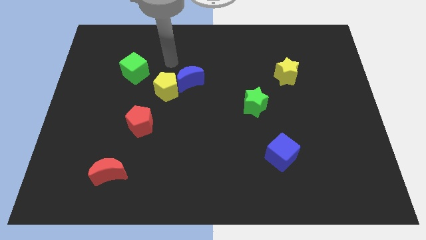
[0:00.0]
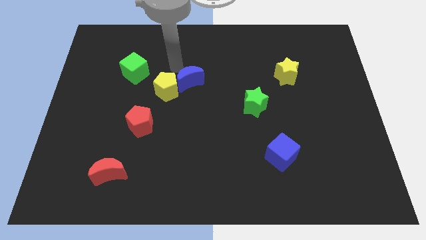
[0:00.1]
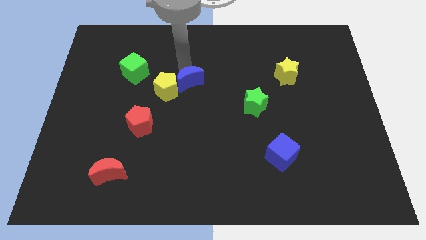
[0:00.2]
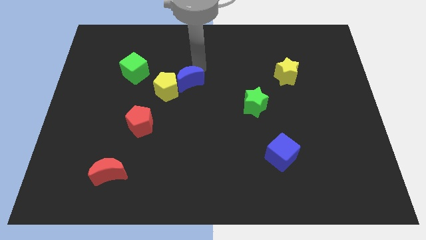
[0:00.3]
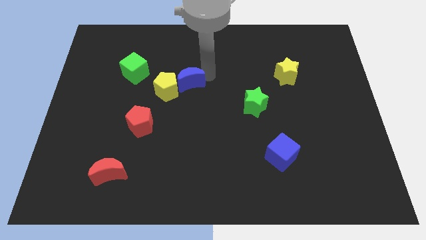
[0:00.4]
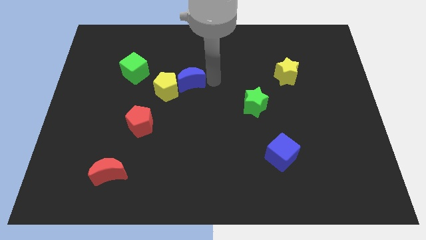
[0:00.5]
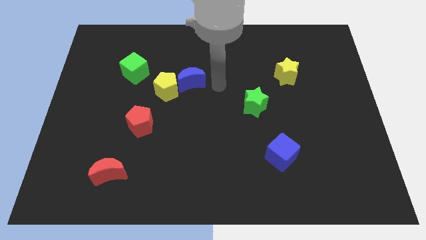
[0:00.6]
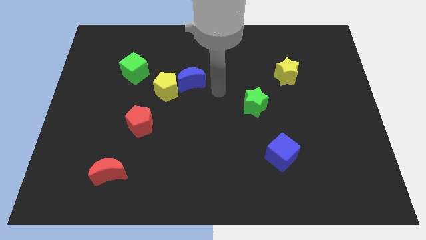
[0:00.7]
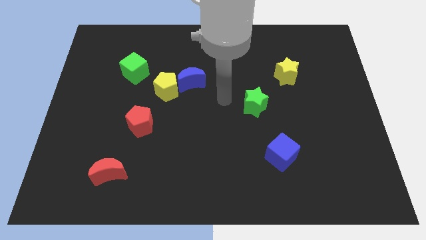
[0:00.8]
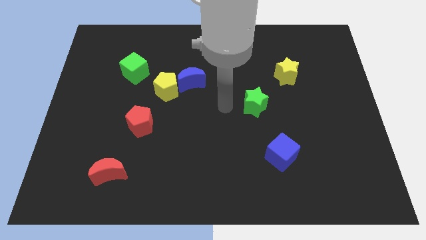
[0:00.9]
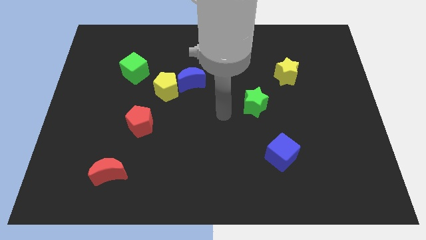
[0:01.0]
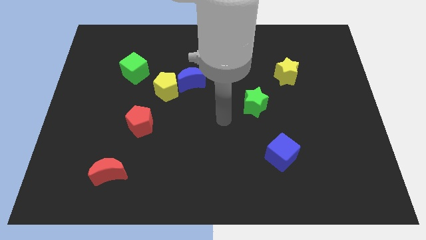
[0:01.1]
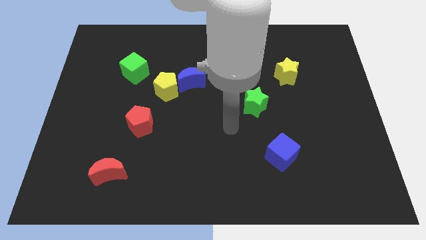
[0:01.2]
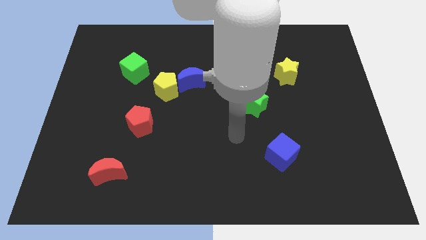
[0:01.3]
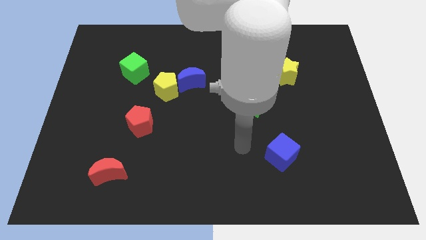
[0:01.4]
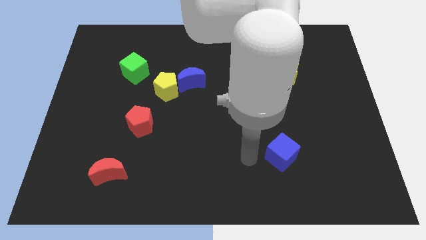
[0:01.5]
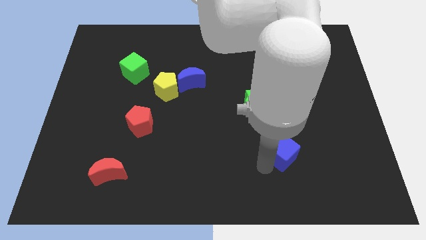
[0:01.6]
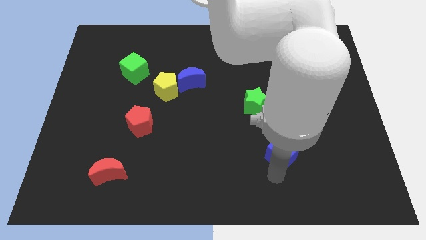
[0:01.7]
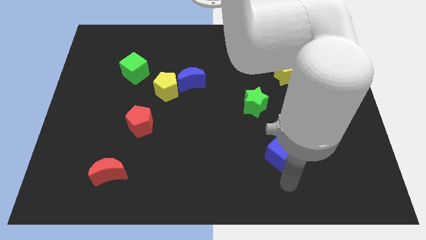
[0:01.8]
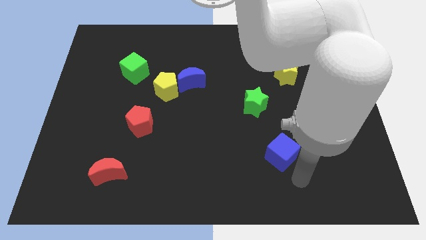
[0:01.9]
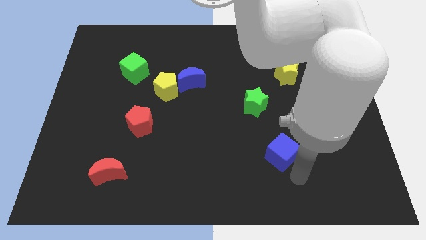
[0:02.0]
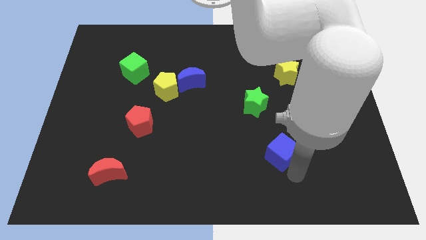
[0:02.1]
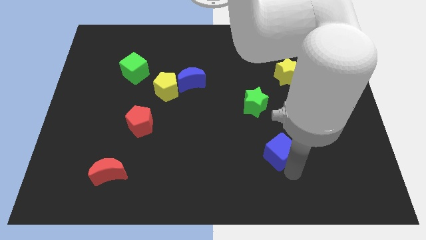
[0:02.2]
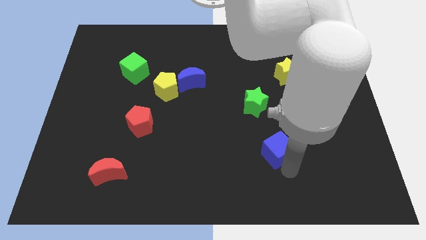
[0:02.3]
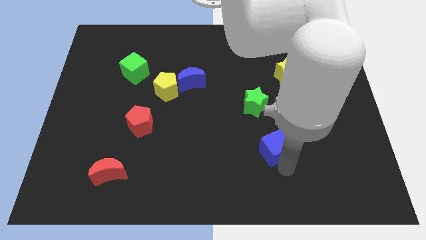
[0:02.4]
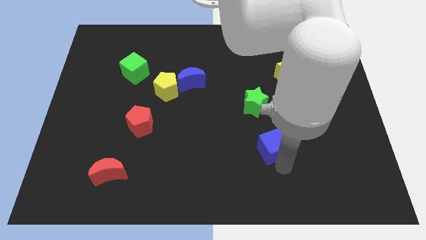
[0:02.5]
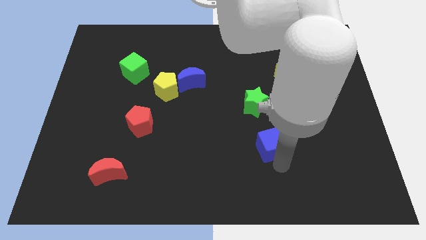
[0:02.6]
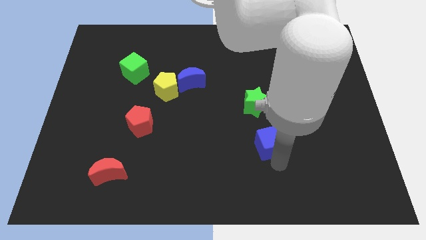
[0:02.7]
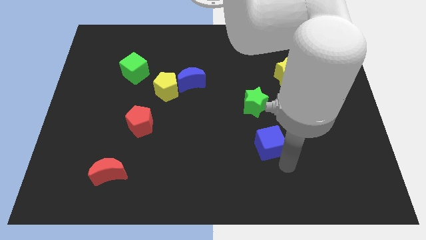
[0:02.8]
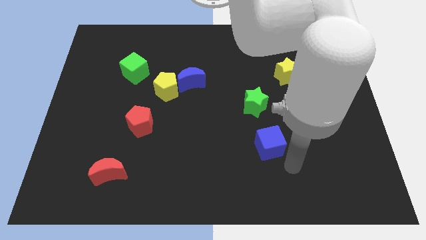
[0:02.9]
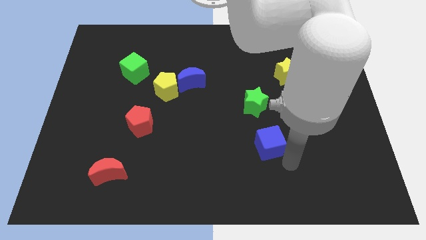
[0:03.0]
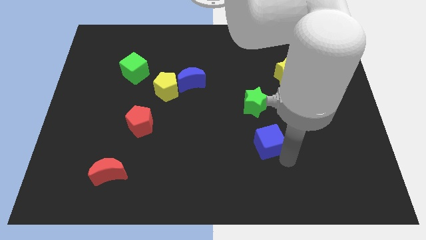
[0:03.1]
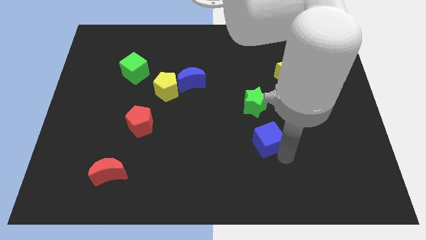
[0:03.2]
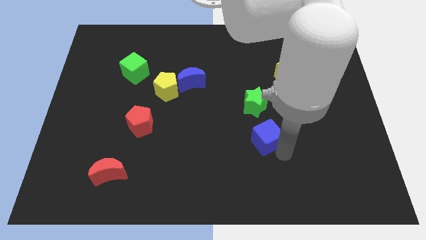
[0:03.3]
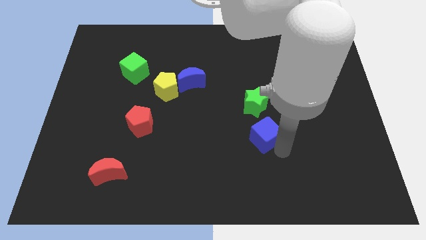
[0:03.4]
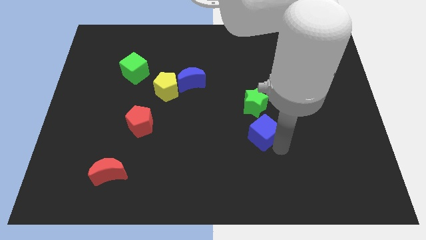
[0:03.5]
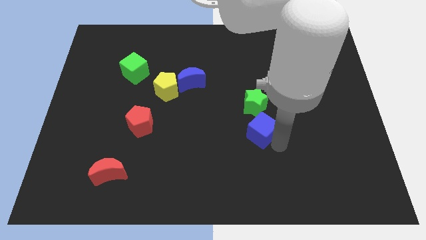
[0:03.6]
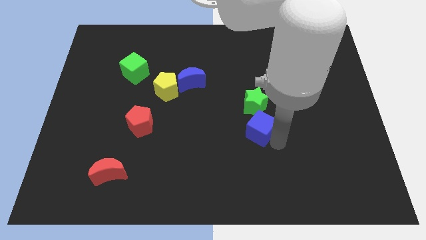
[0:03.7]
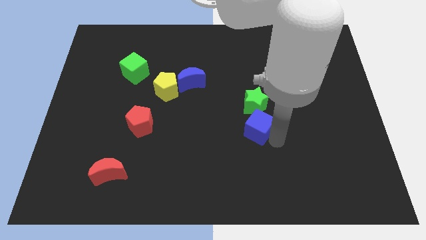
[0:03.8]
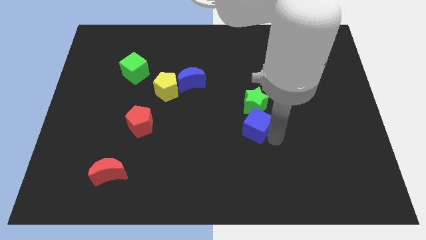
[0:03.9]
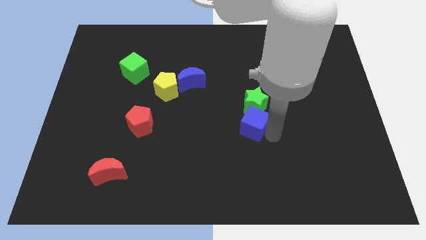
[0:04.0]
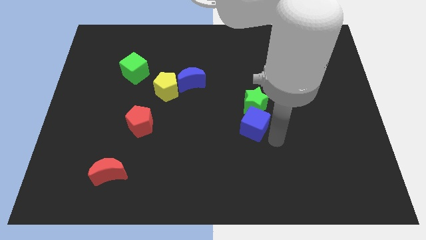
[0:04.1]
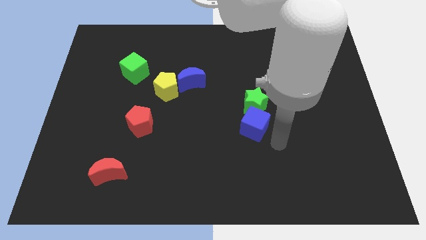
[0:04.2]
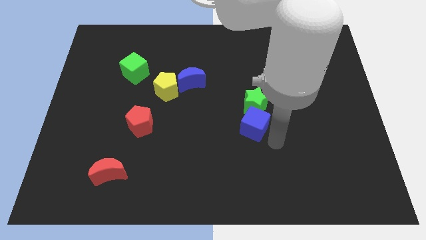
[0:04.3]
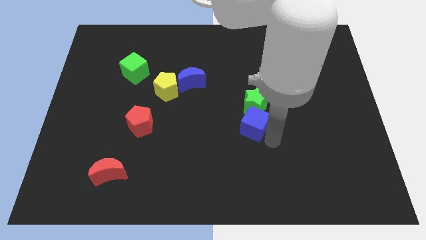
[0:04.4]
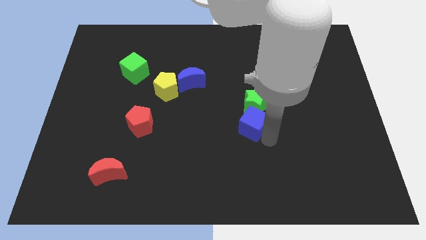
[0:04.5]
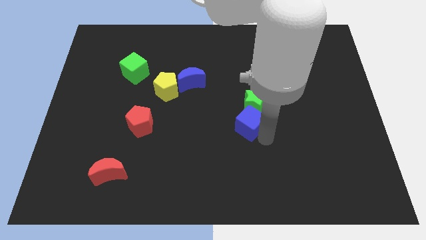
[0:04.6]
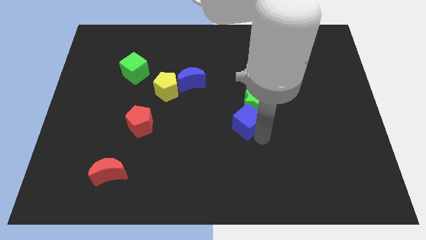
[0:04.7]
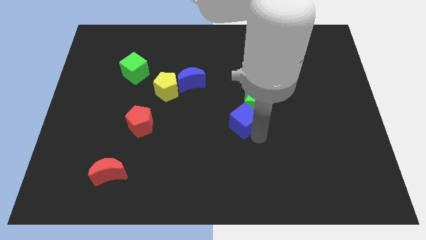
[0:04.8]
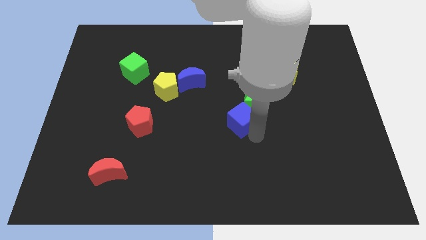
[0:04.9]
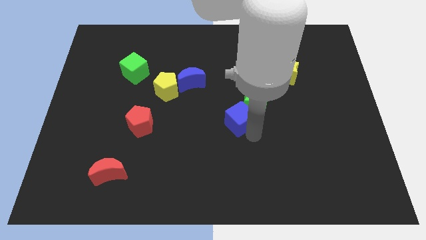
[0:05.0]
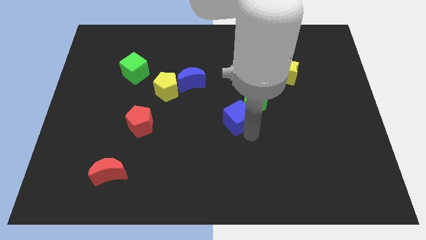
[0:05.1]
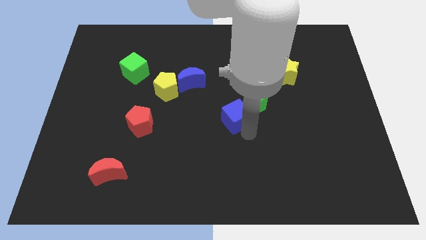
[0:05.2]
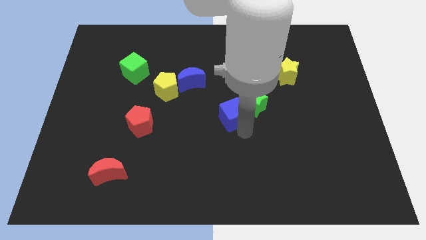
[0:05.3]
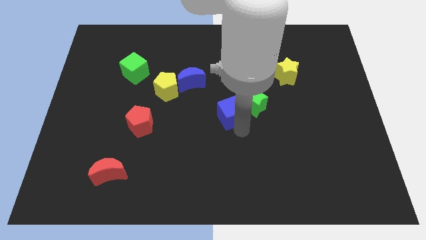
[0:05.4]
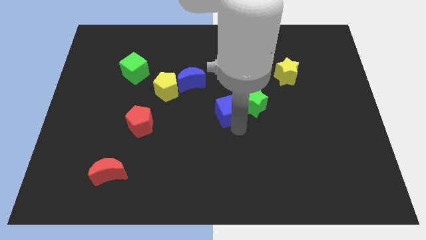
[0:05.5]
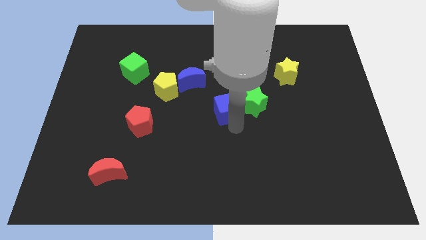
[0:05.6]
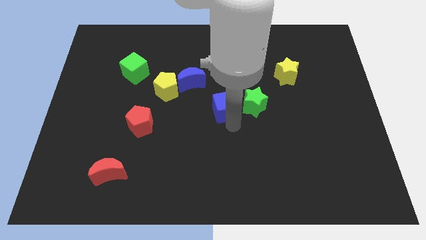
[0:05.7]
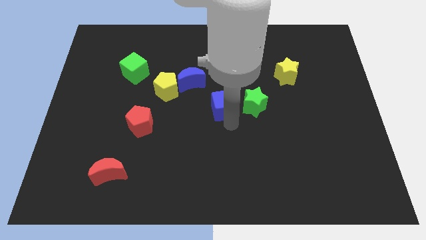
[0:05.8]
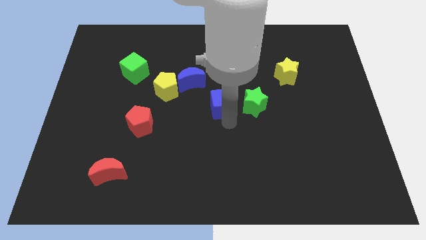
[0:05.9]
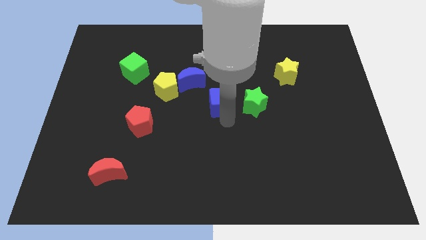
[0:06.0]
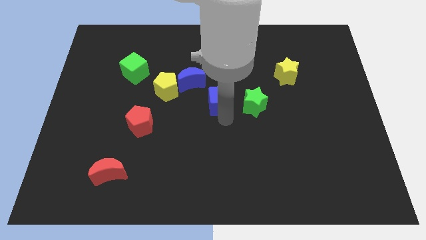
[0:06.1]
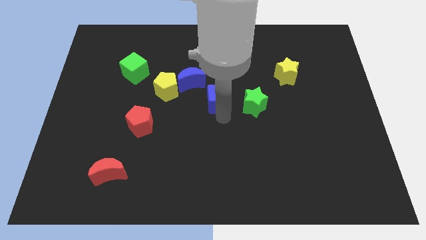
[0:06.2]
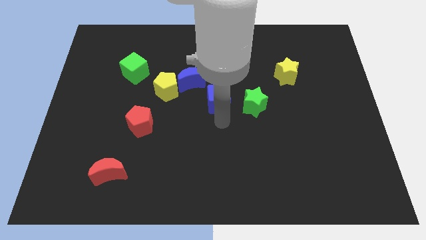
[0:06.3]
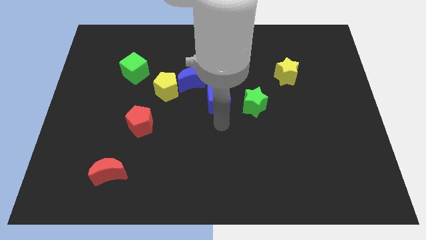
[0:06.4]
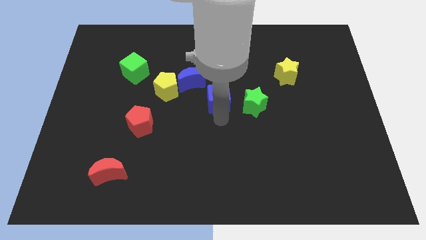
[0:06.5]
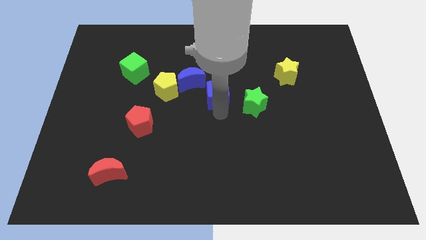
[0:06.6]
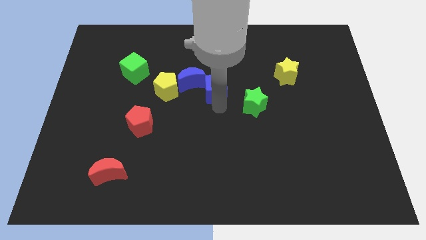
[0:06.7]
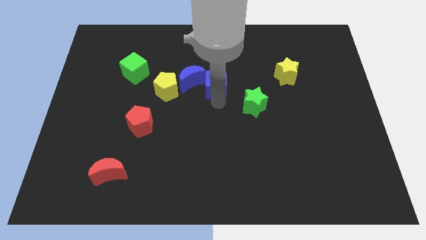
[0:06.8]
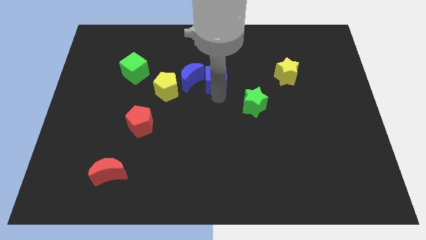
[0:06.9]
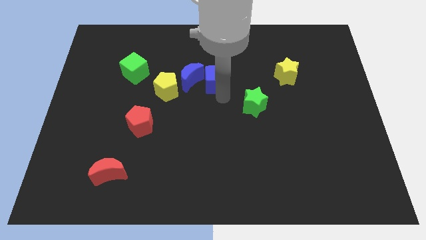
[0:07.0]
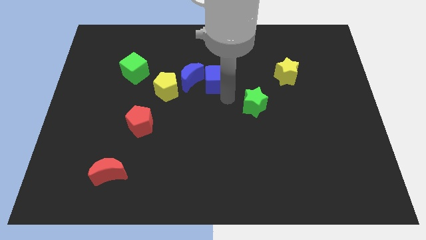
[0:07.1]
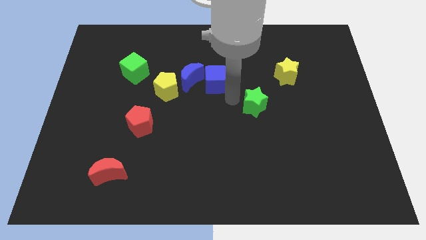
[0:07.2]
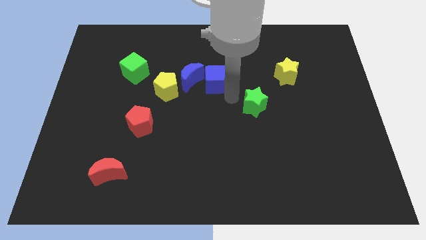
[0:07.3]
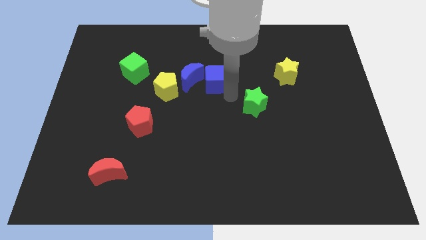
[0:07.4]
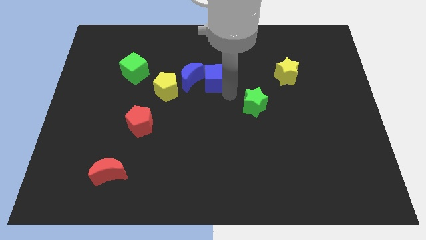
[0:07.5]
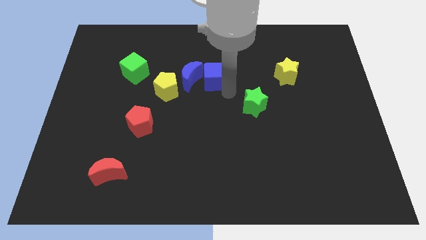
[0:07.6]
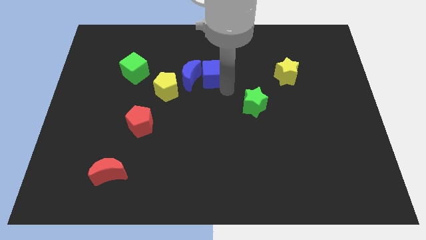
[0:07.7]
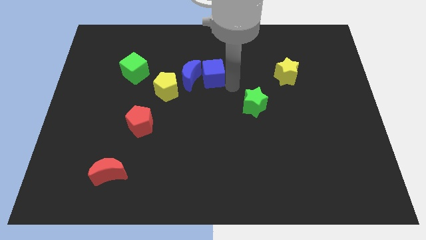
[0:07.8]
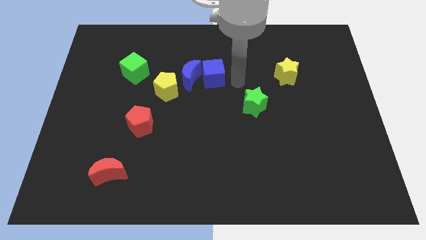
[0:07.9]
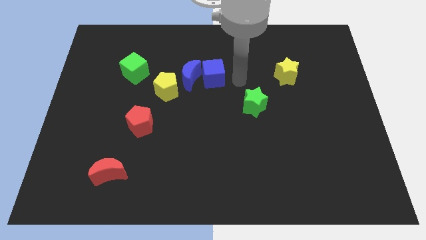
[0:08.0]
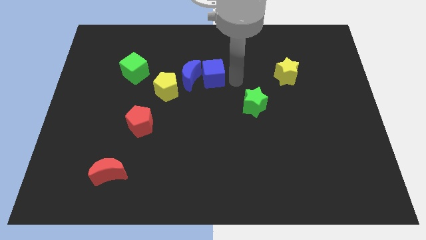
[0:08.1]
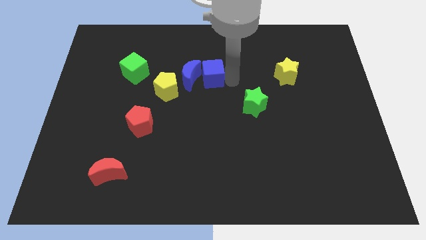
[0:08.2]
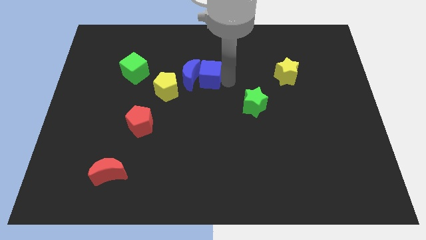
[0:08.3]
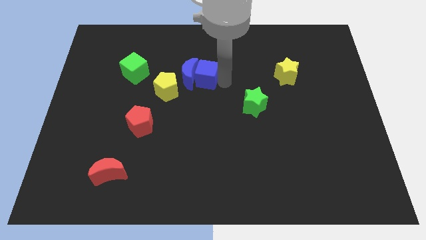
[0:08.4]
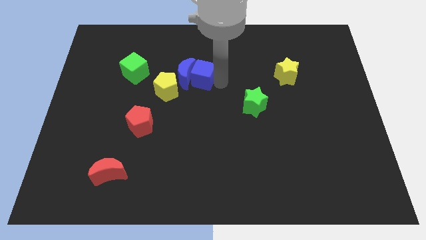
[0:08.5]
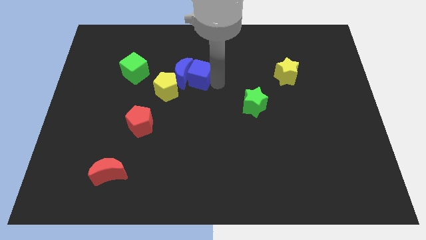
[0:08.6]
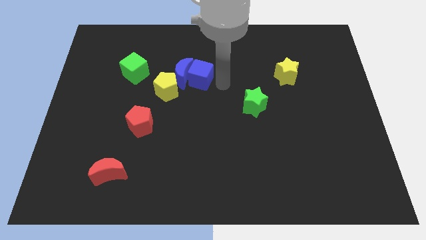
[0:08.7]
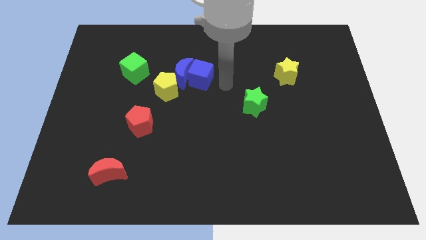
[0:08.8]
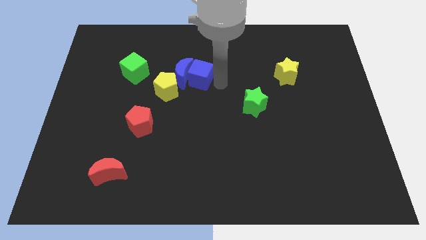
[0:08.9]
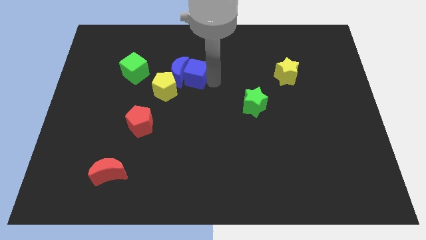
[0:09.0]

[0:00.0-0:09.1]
push the blue cube just right of the green cube
